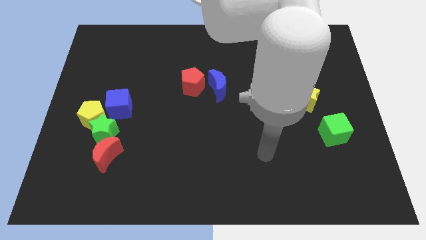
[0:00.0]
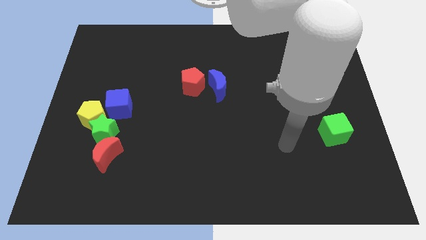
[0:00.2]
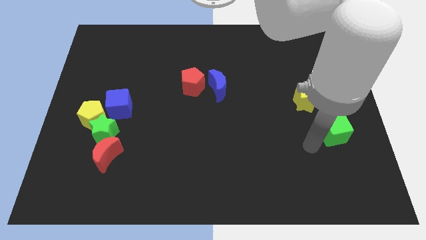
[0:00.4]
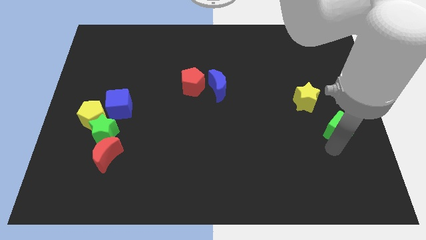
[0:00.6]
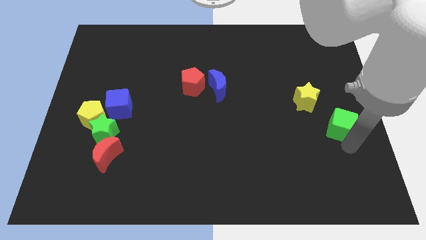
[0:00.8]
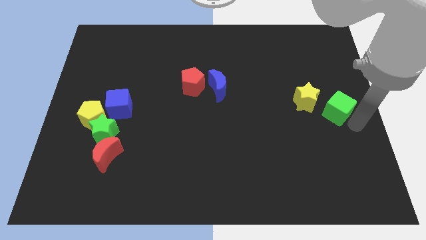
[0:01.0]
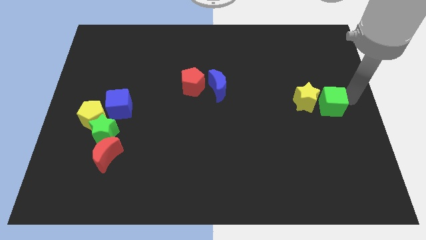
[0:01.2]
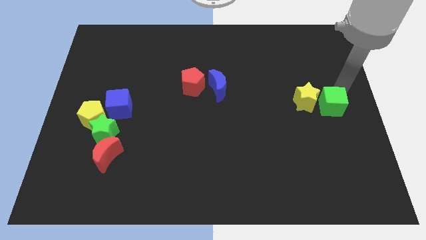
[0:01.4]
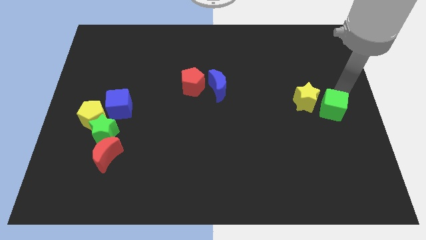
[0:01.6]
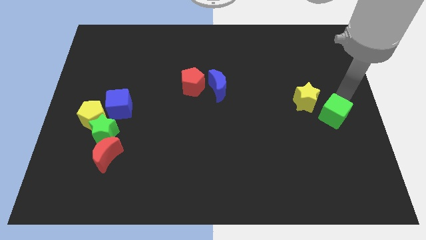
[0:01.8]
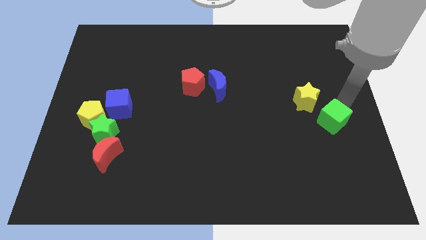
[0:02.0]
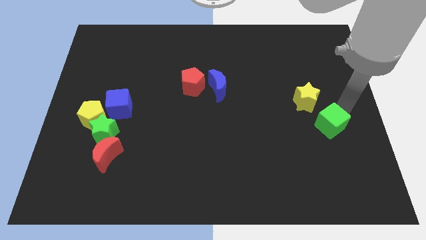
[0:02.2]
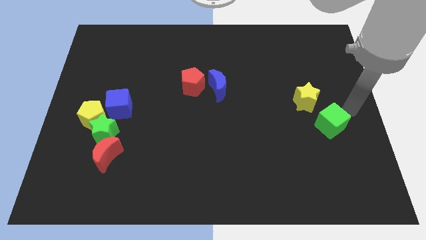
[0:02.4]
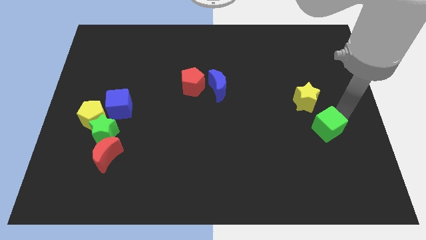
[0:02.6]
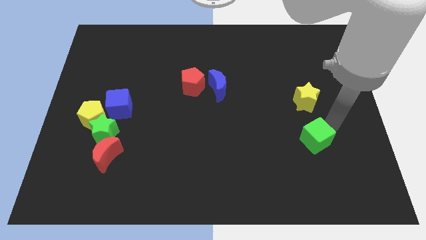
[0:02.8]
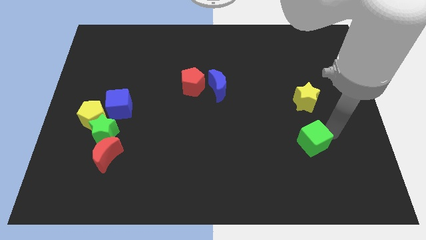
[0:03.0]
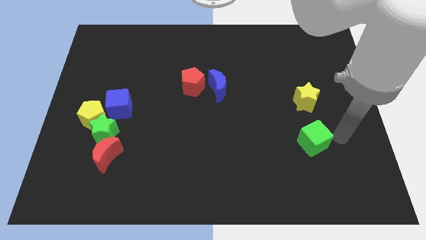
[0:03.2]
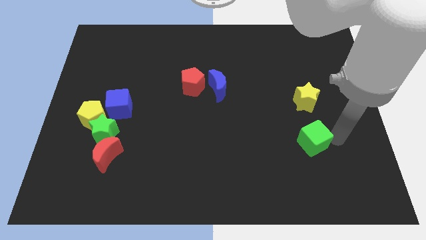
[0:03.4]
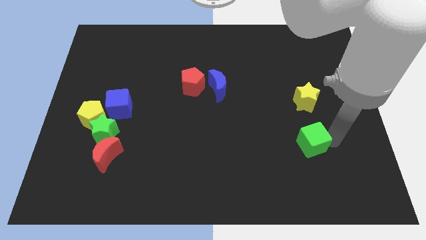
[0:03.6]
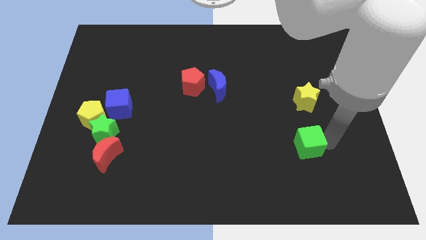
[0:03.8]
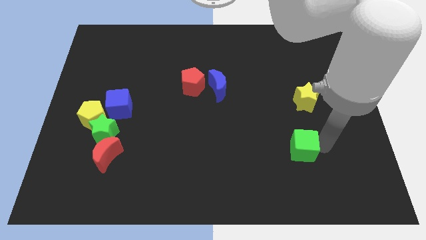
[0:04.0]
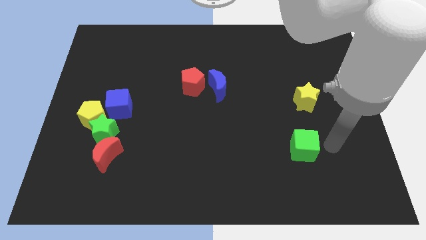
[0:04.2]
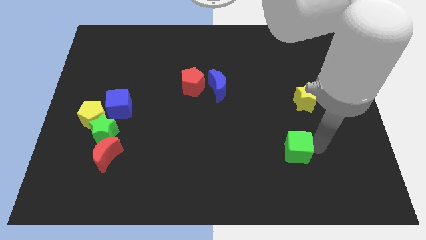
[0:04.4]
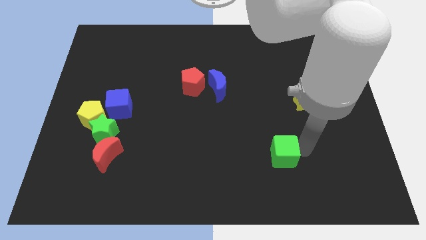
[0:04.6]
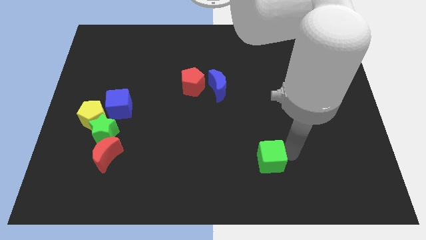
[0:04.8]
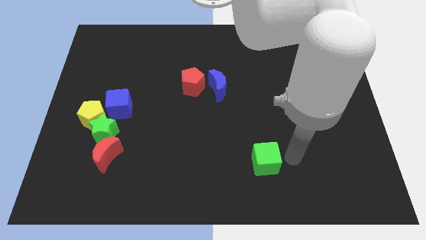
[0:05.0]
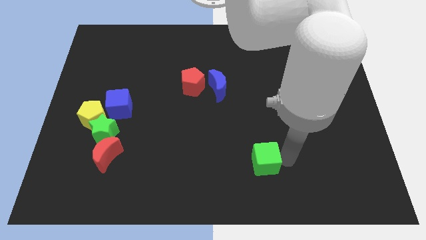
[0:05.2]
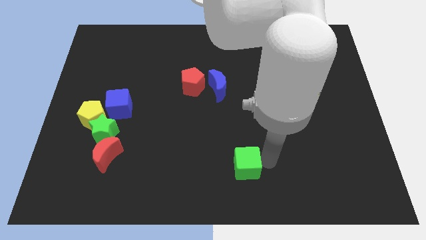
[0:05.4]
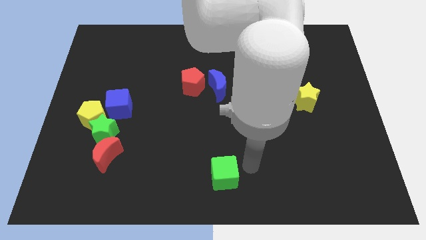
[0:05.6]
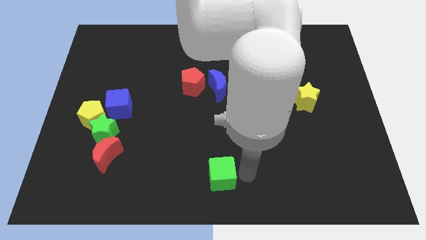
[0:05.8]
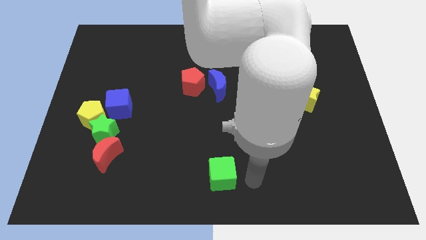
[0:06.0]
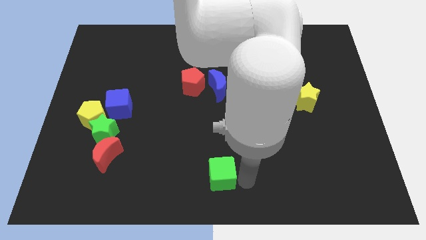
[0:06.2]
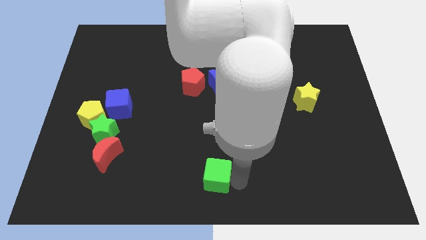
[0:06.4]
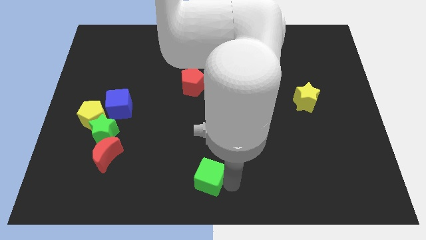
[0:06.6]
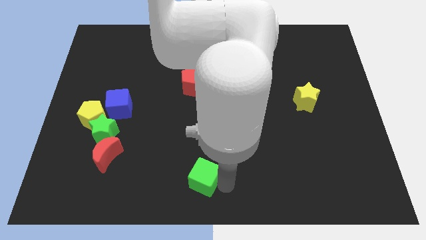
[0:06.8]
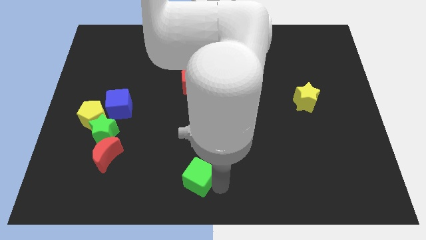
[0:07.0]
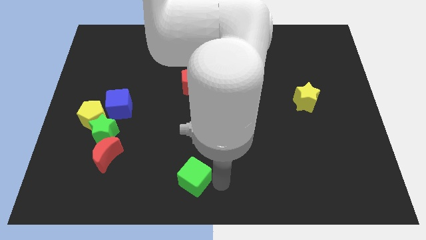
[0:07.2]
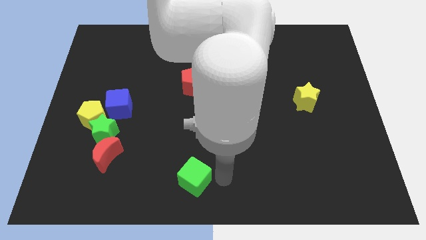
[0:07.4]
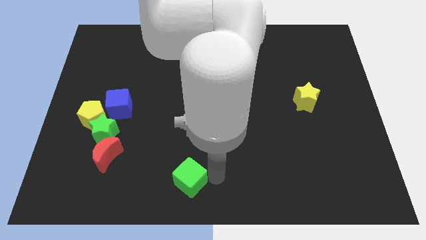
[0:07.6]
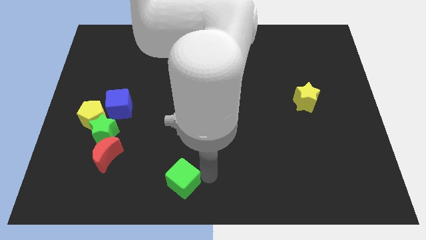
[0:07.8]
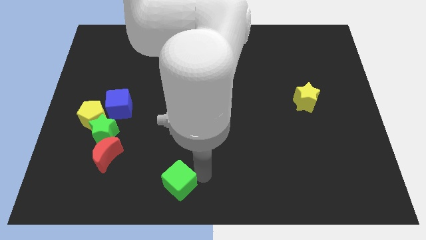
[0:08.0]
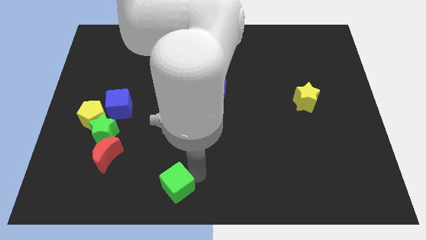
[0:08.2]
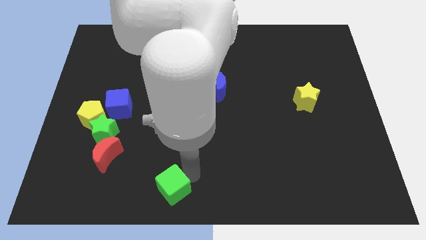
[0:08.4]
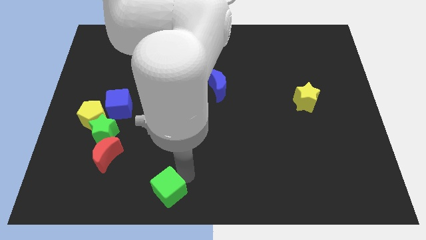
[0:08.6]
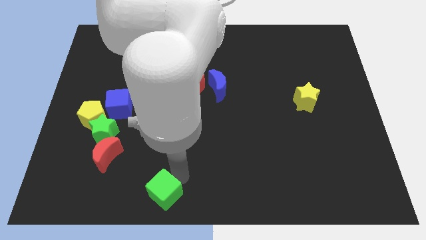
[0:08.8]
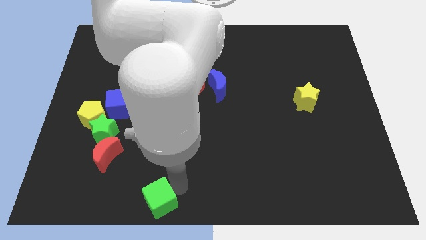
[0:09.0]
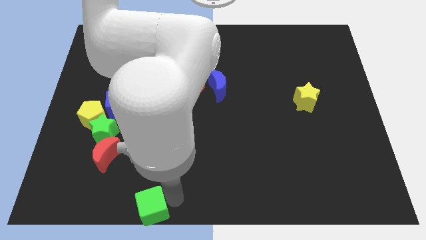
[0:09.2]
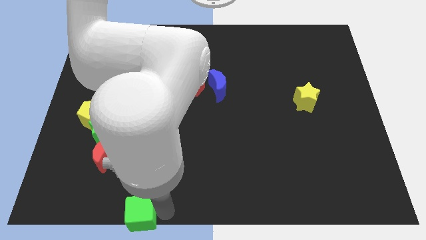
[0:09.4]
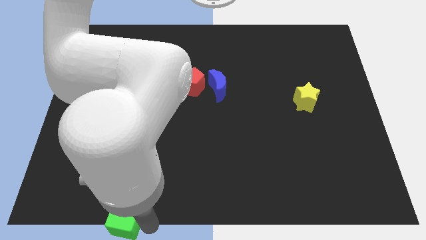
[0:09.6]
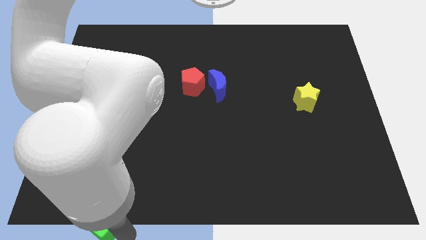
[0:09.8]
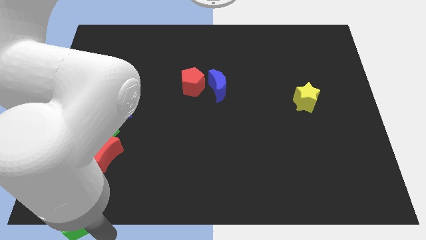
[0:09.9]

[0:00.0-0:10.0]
put the green cube to the lower left corner

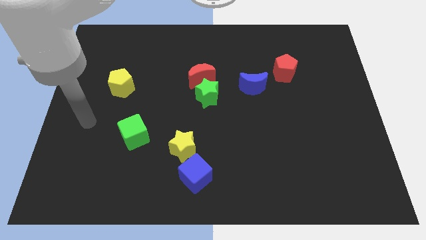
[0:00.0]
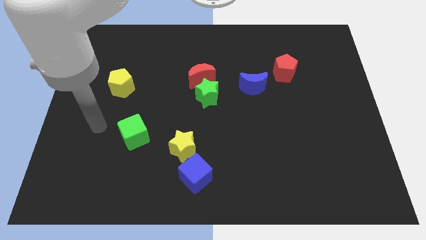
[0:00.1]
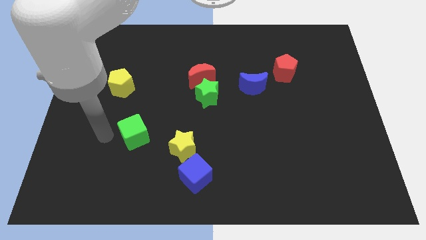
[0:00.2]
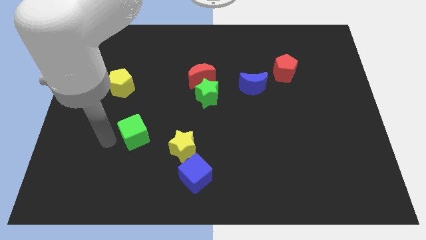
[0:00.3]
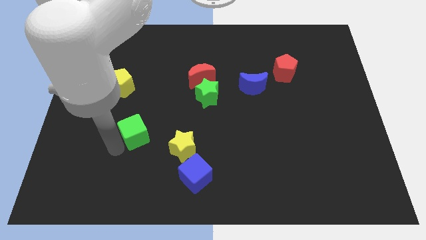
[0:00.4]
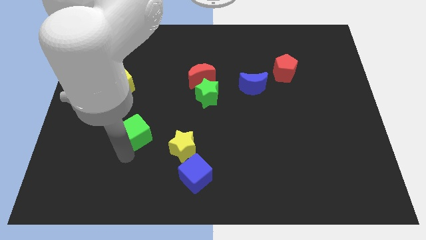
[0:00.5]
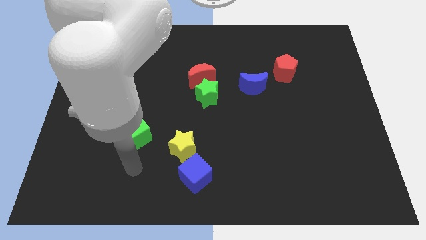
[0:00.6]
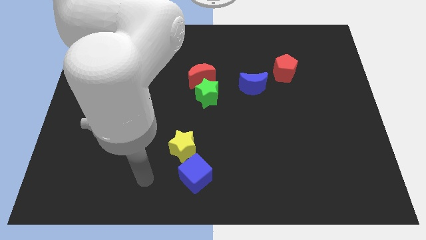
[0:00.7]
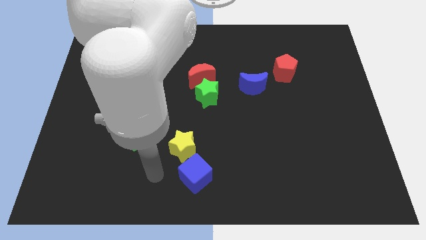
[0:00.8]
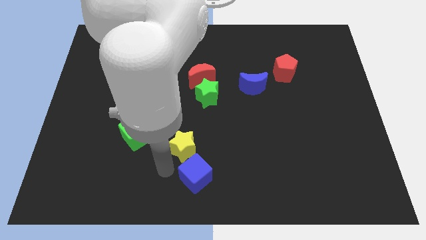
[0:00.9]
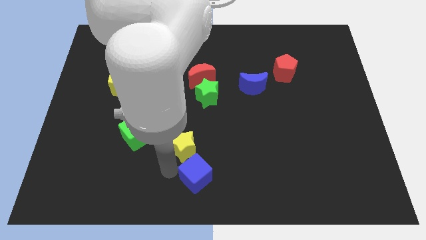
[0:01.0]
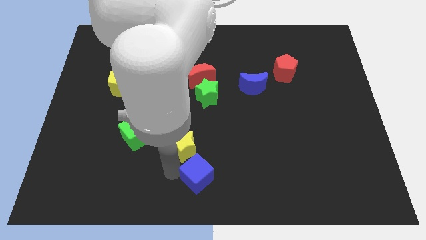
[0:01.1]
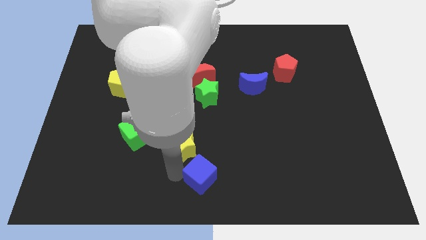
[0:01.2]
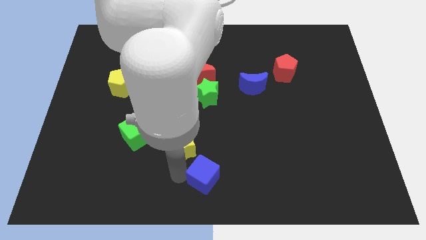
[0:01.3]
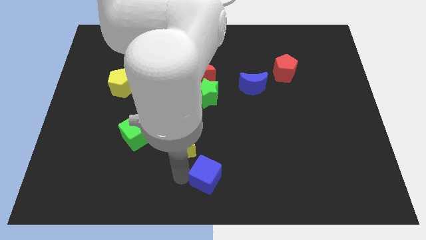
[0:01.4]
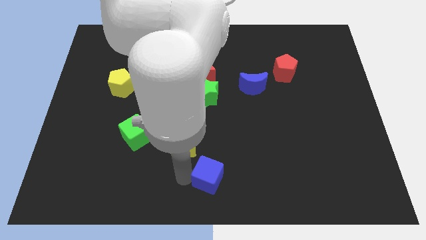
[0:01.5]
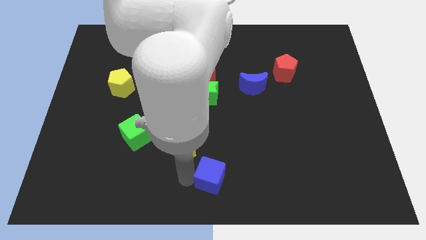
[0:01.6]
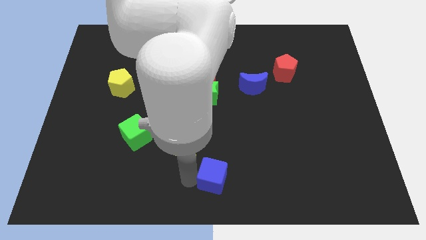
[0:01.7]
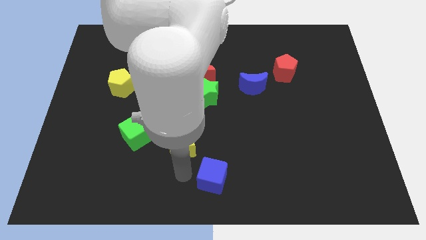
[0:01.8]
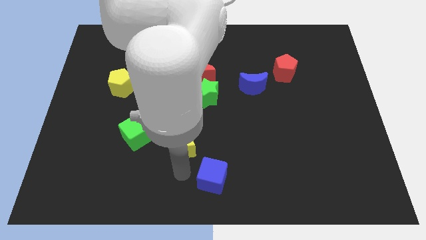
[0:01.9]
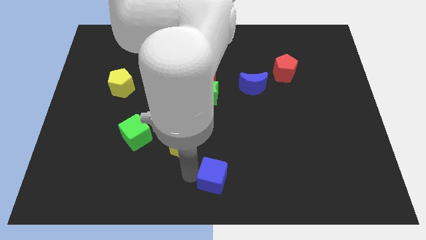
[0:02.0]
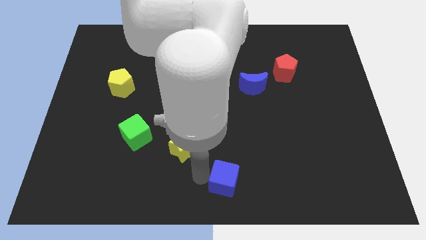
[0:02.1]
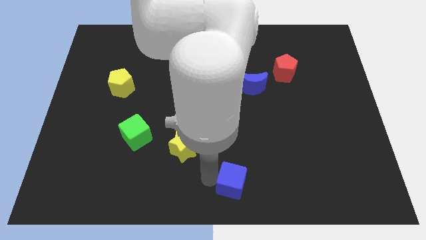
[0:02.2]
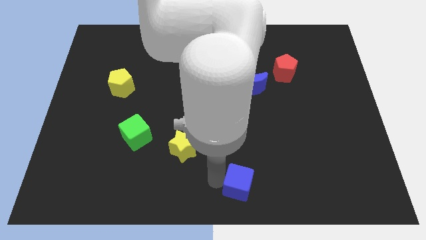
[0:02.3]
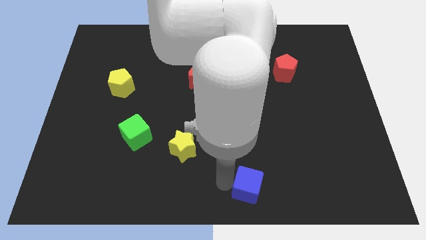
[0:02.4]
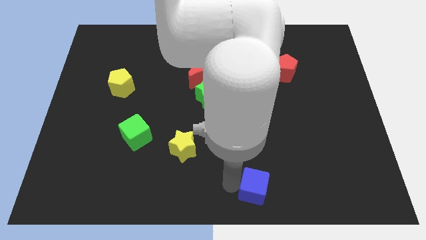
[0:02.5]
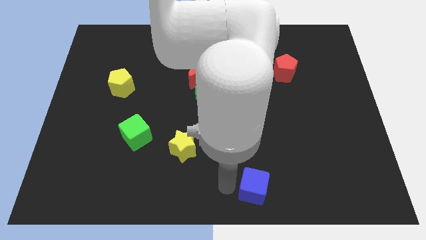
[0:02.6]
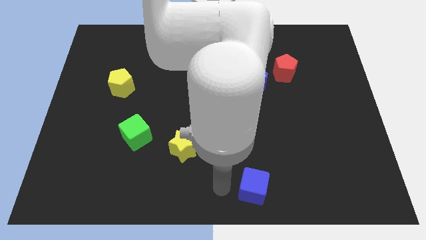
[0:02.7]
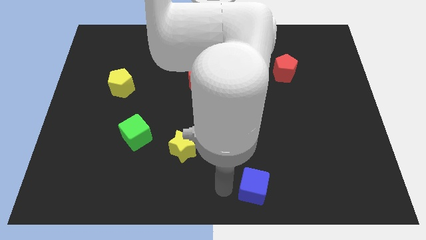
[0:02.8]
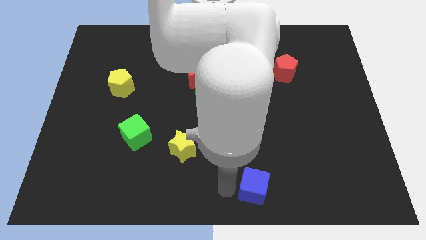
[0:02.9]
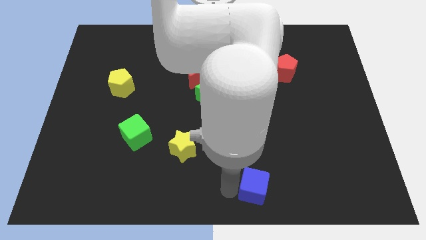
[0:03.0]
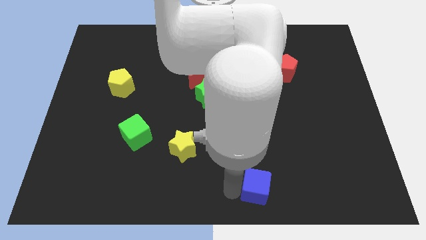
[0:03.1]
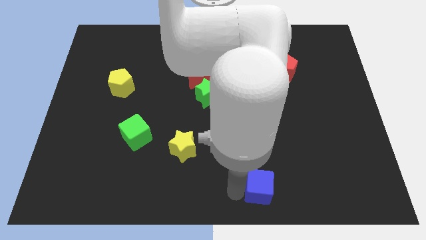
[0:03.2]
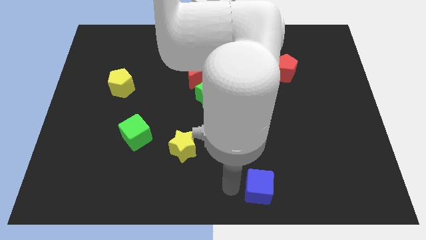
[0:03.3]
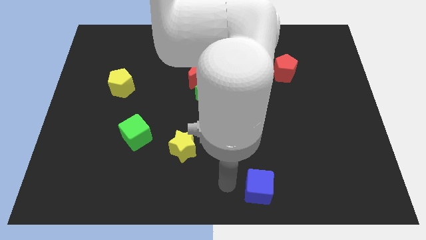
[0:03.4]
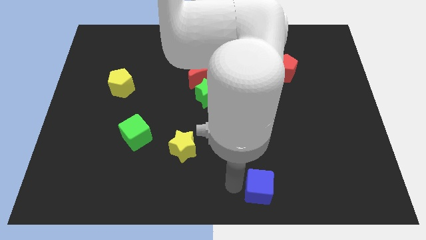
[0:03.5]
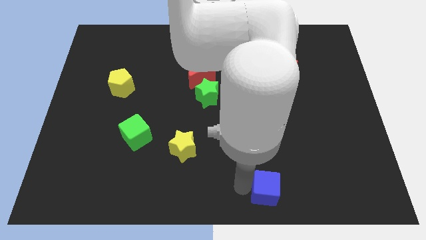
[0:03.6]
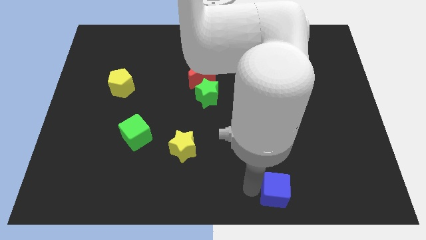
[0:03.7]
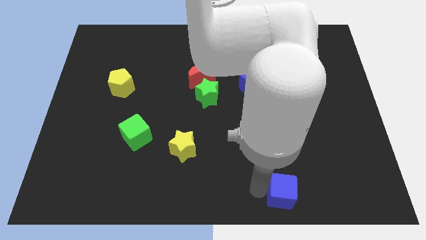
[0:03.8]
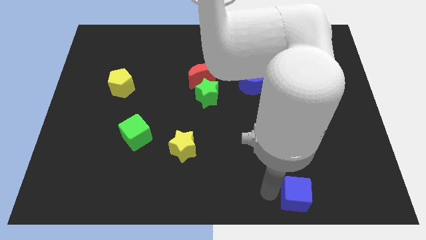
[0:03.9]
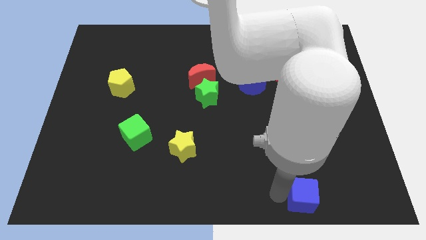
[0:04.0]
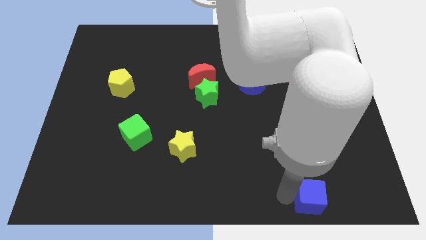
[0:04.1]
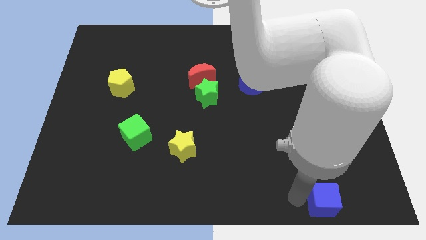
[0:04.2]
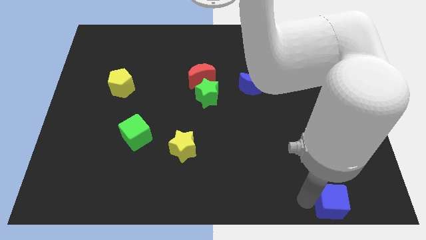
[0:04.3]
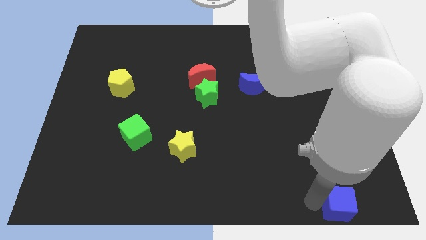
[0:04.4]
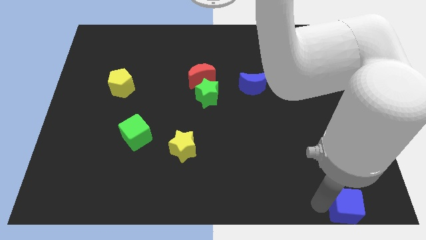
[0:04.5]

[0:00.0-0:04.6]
push the blue cube to the lower right corner
